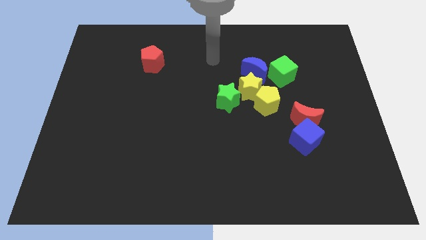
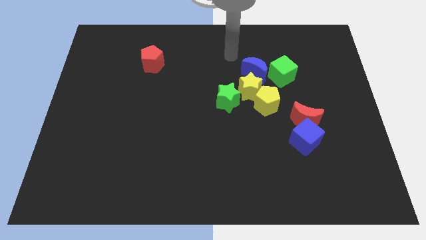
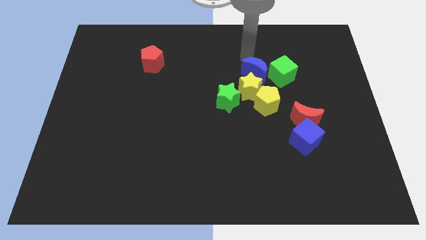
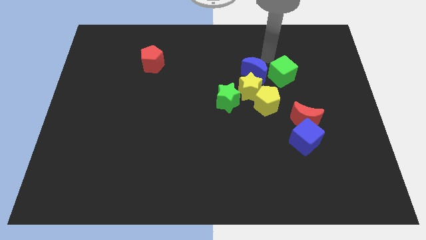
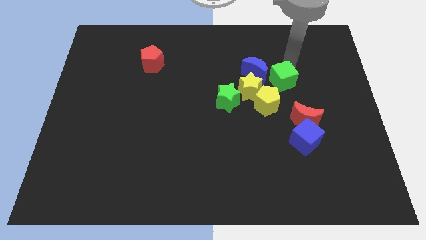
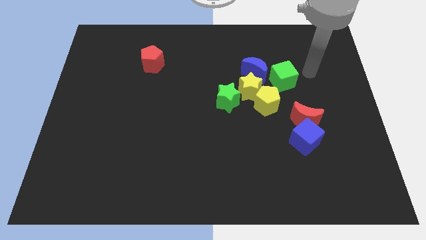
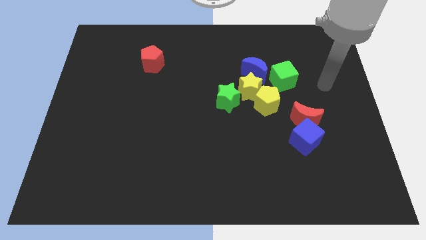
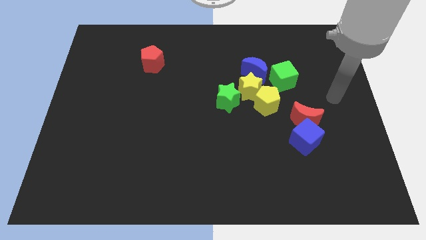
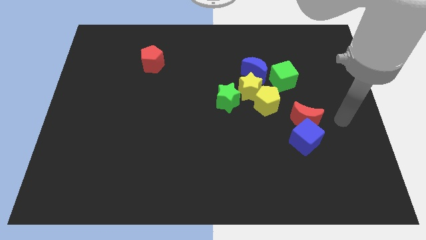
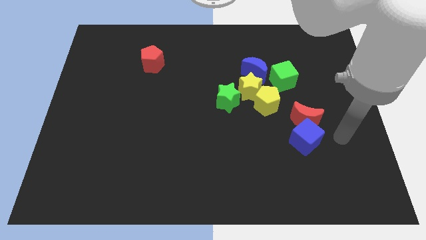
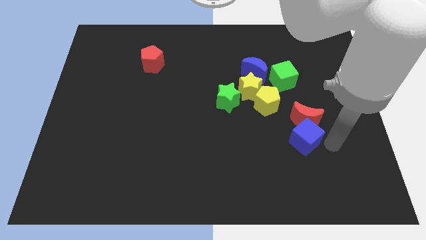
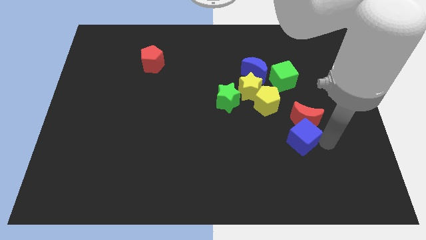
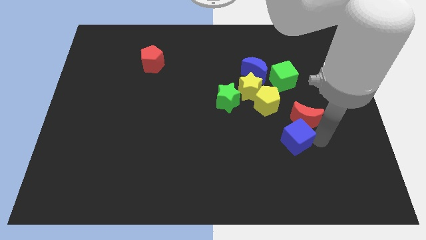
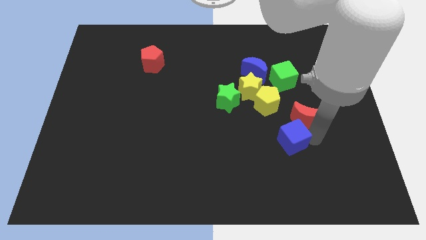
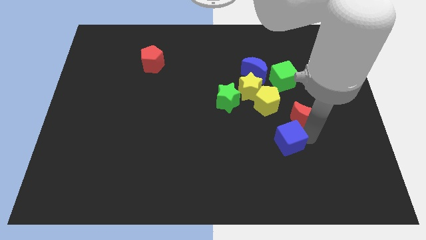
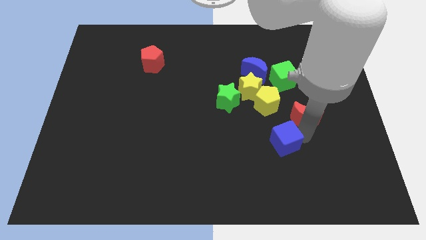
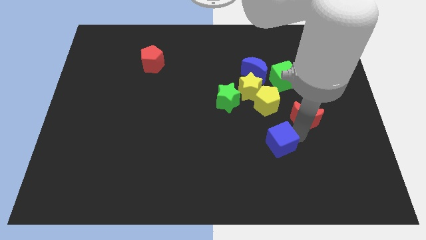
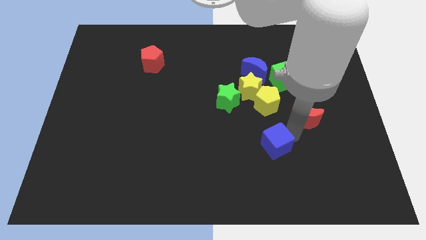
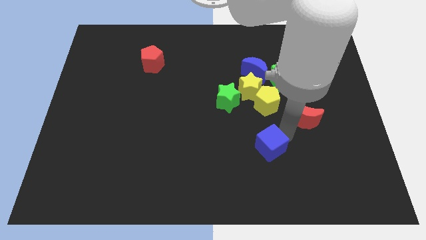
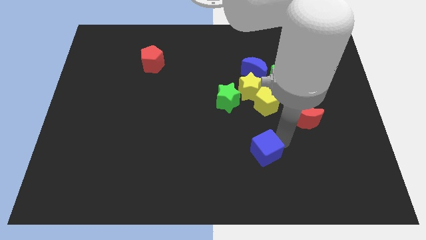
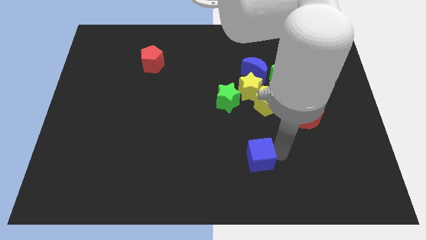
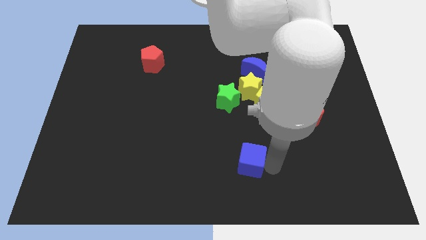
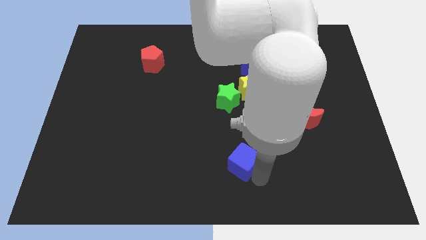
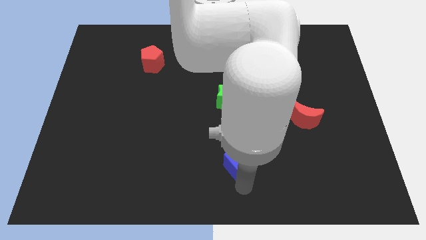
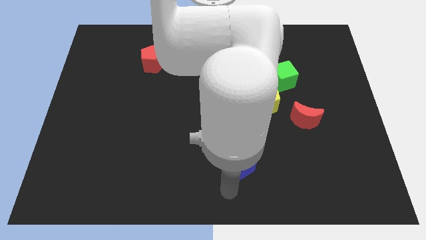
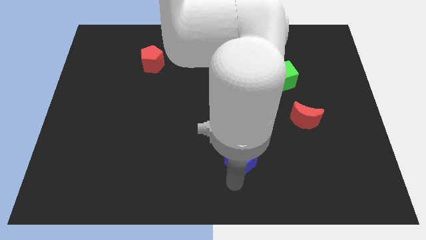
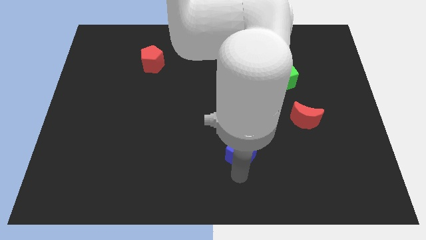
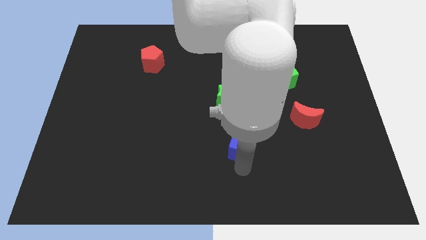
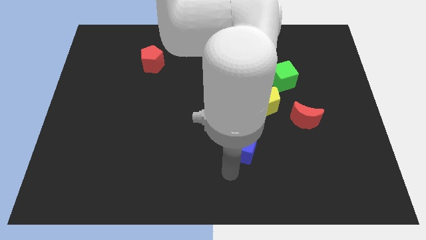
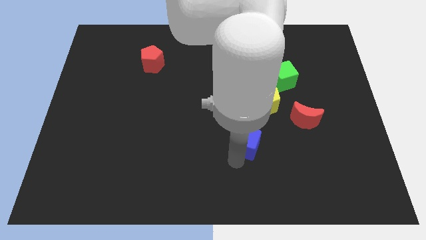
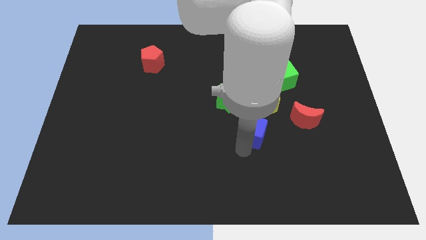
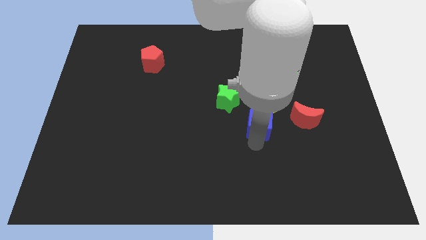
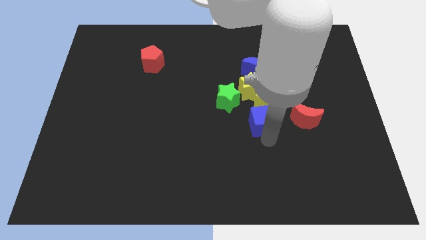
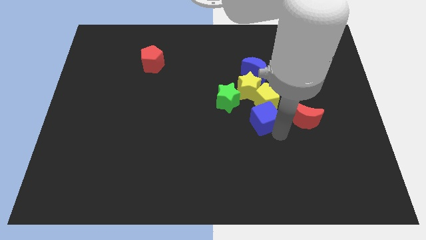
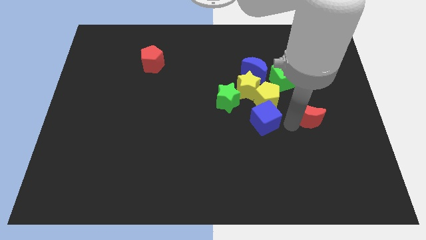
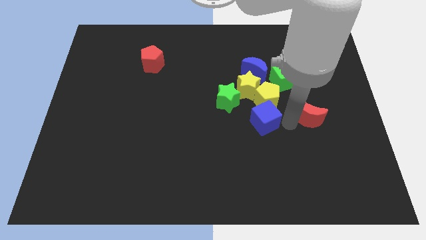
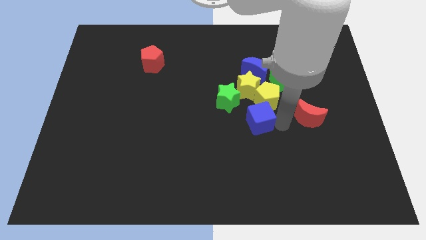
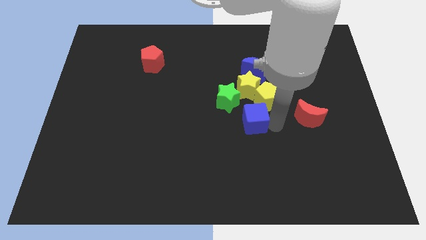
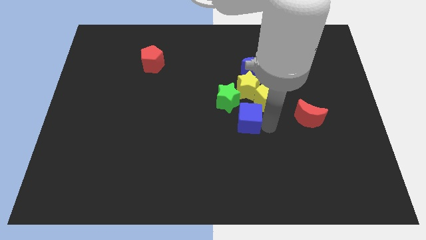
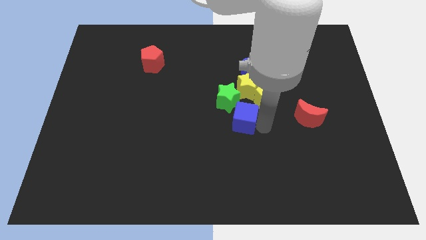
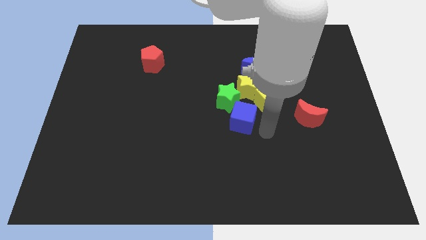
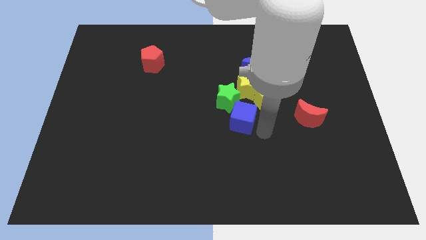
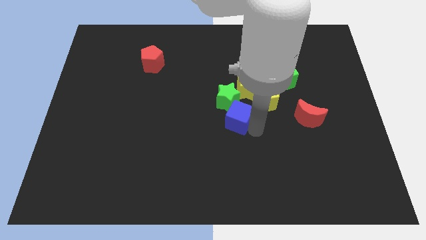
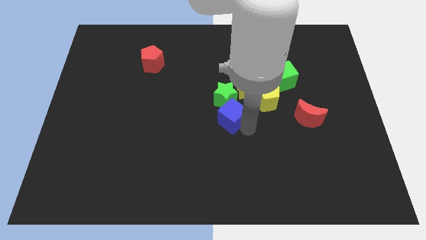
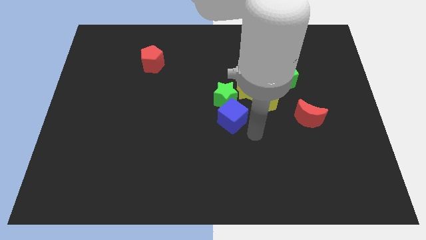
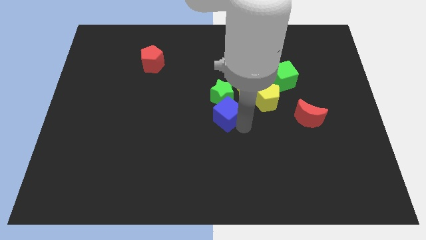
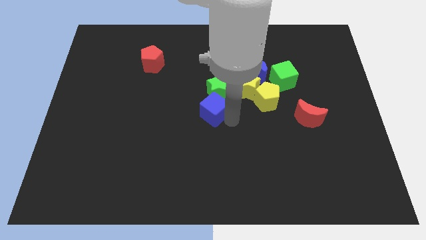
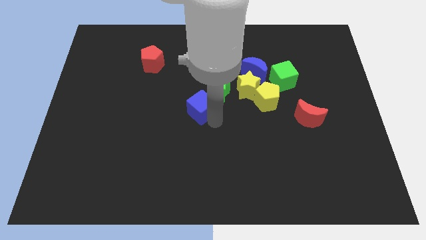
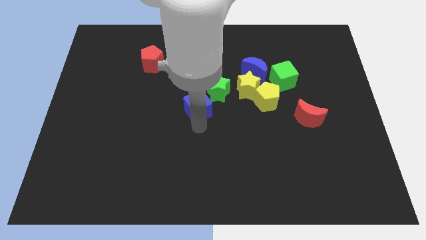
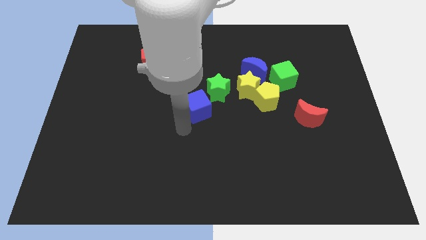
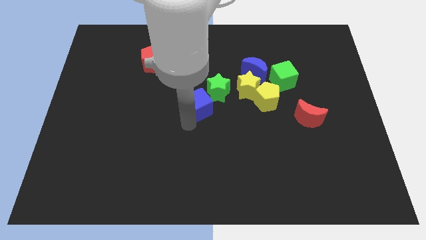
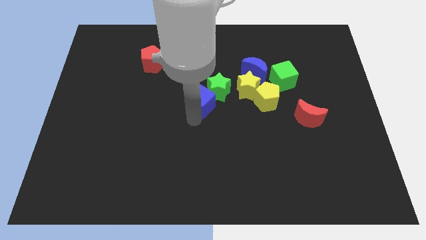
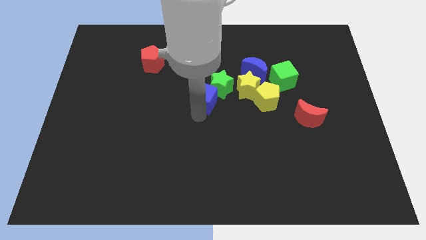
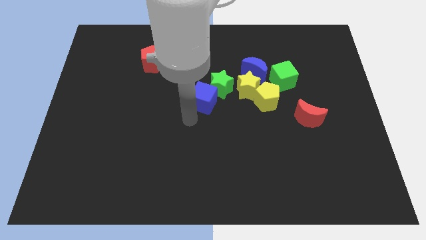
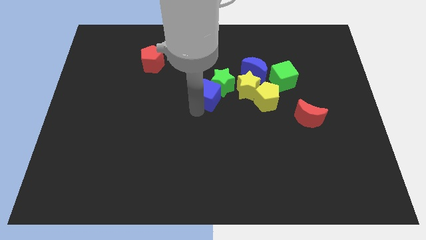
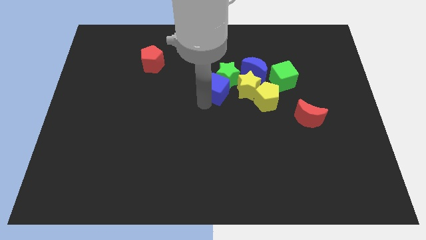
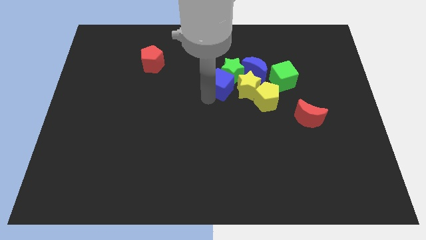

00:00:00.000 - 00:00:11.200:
slide the blue cube left of the green cube
